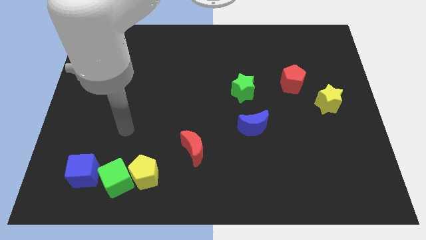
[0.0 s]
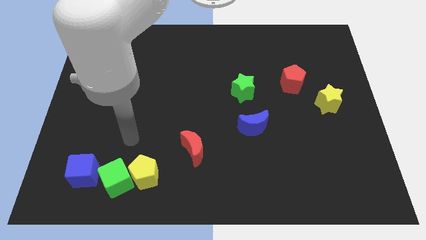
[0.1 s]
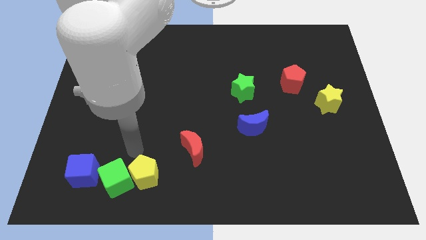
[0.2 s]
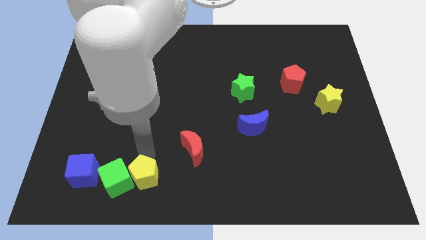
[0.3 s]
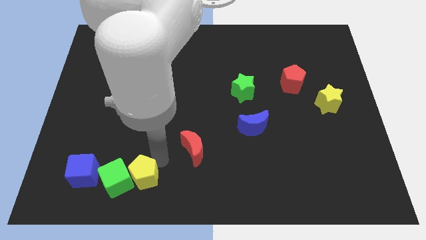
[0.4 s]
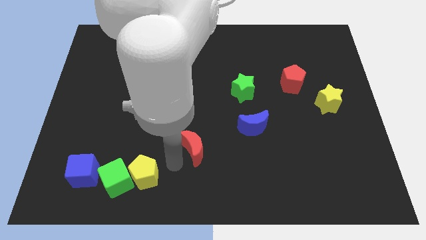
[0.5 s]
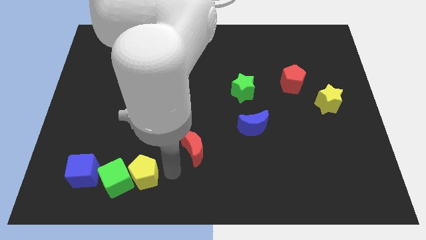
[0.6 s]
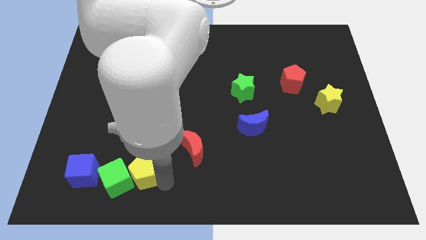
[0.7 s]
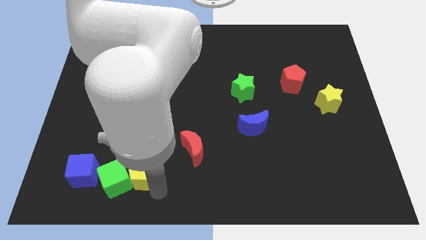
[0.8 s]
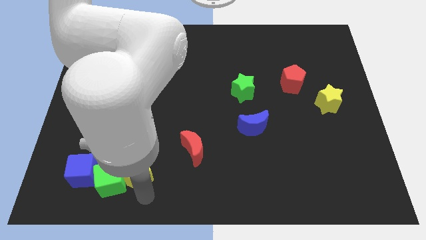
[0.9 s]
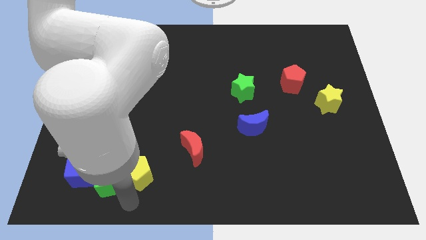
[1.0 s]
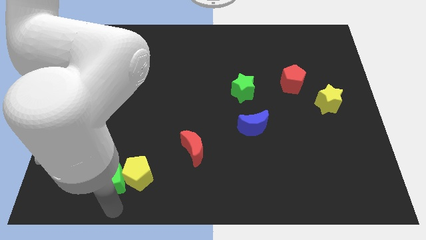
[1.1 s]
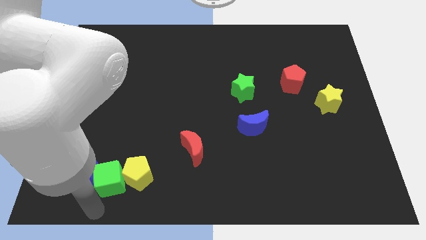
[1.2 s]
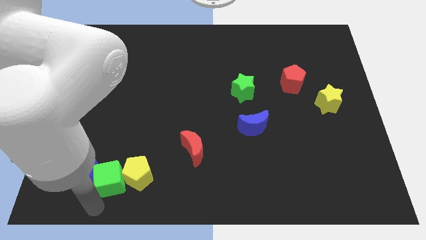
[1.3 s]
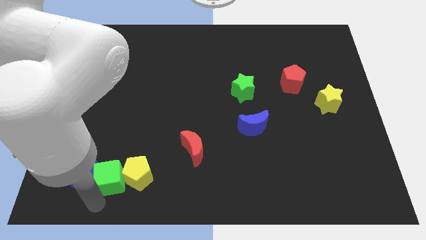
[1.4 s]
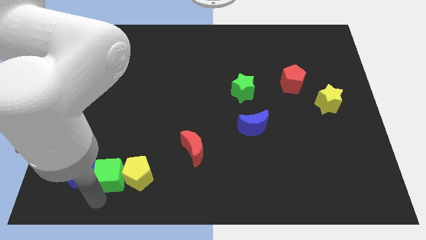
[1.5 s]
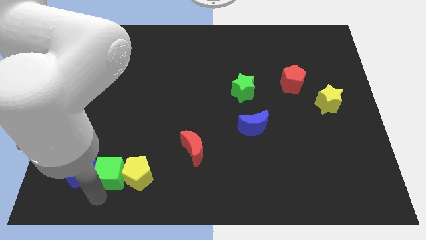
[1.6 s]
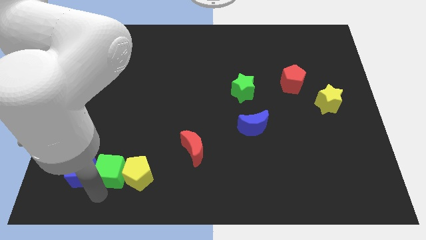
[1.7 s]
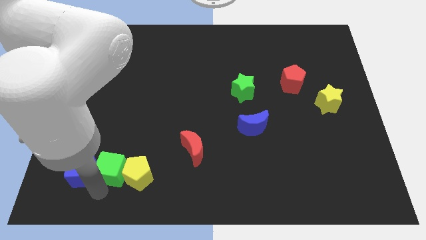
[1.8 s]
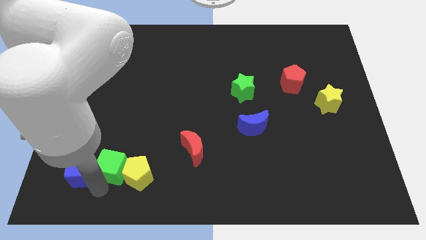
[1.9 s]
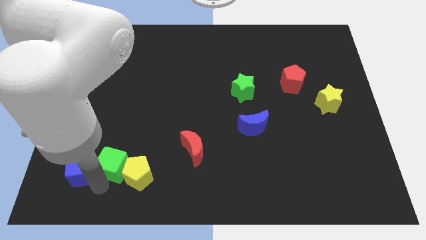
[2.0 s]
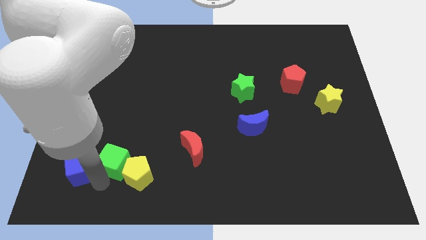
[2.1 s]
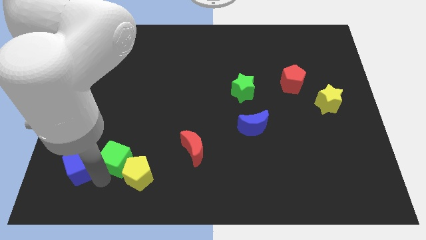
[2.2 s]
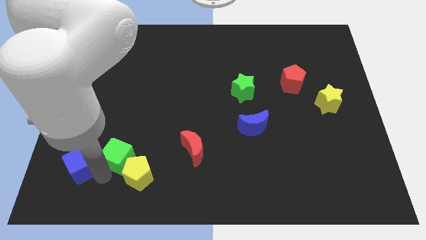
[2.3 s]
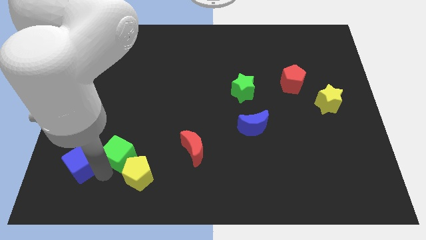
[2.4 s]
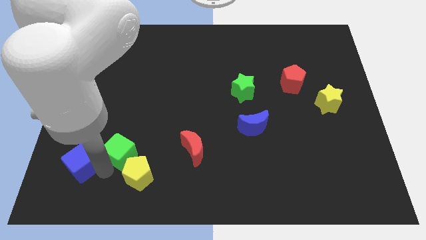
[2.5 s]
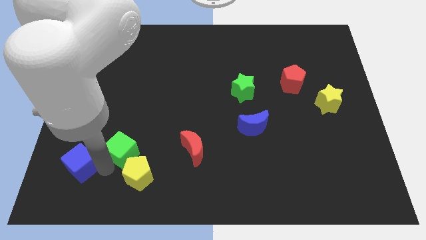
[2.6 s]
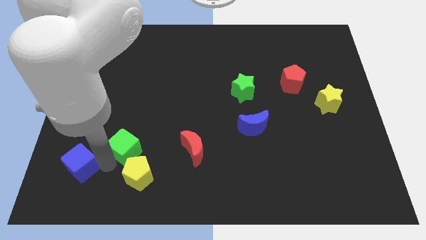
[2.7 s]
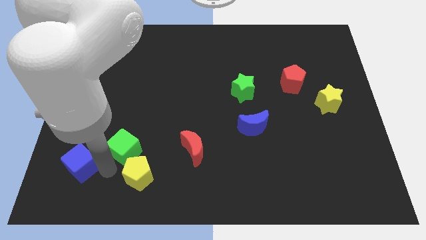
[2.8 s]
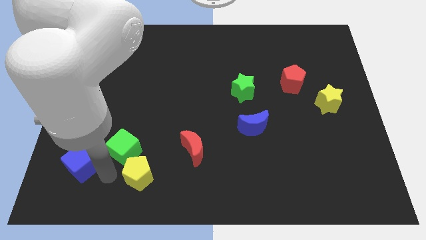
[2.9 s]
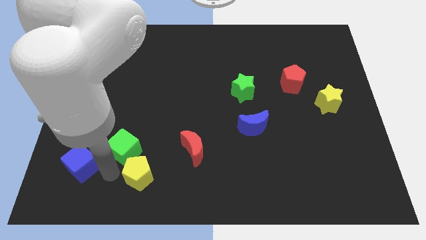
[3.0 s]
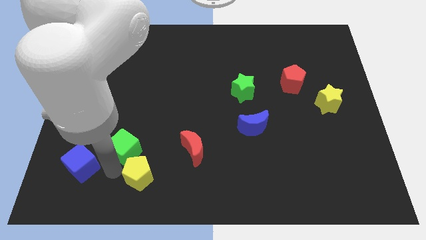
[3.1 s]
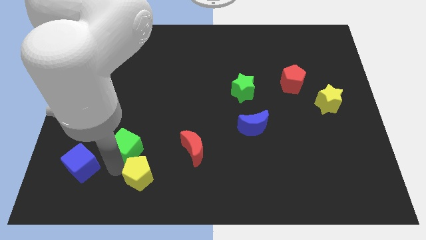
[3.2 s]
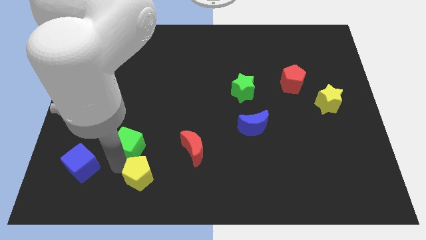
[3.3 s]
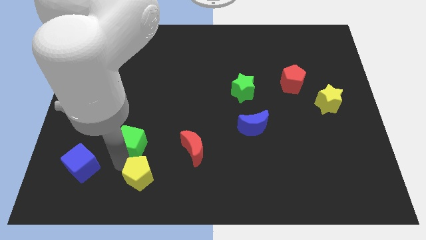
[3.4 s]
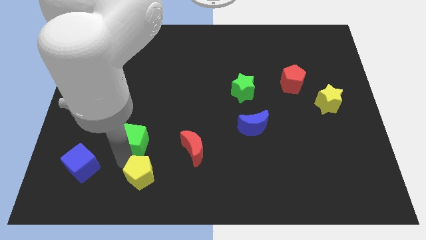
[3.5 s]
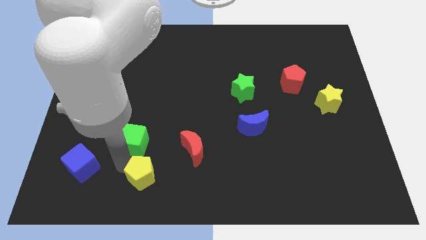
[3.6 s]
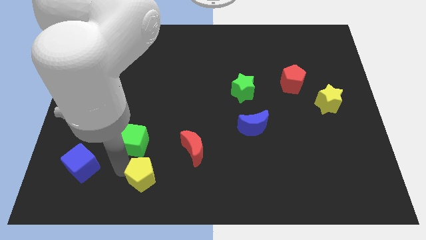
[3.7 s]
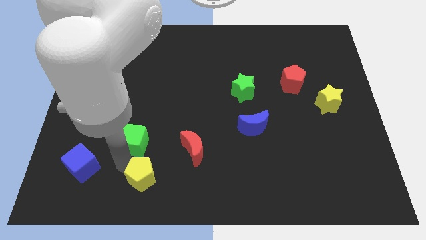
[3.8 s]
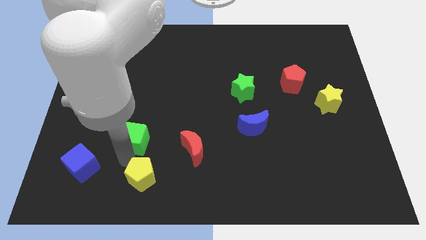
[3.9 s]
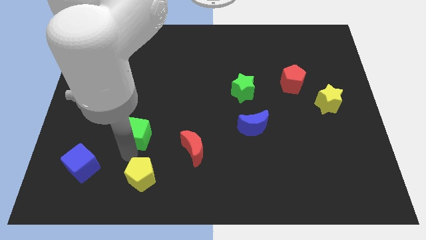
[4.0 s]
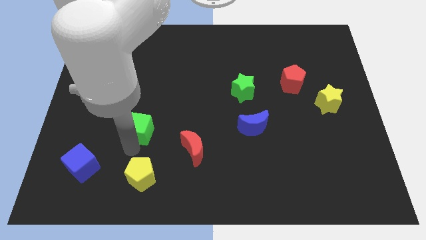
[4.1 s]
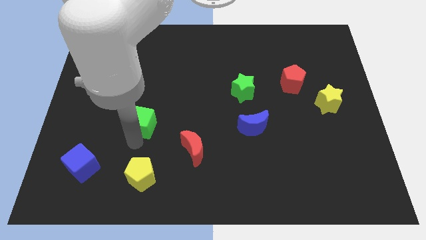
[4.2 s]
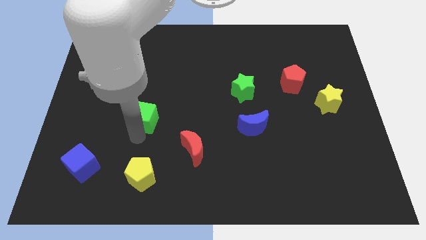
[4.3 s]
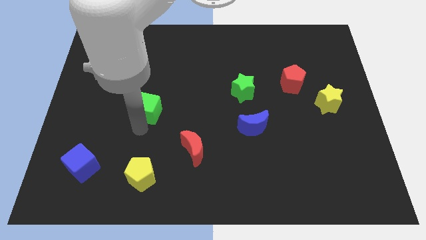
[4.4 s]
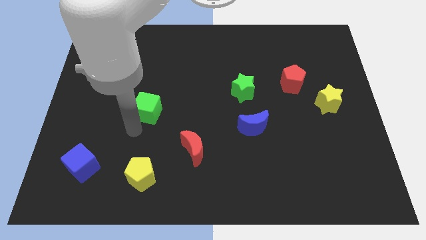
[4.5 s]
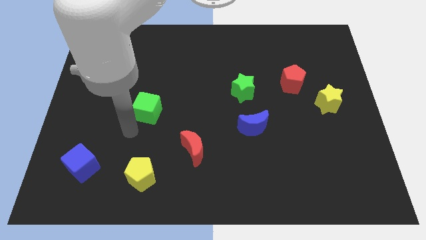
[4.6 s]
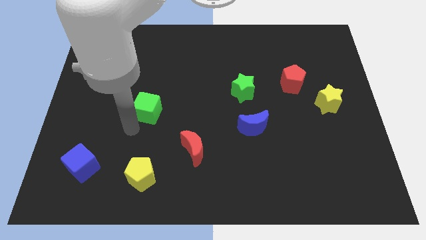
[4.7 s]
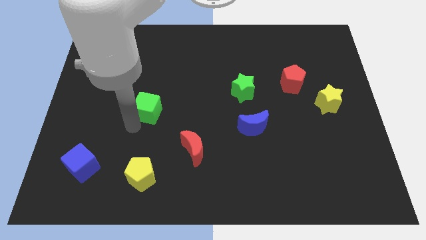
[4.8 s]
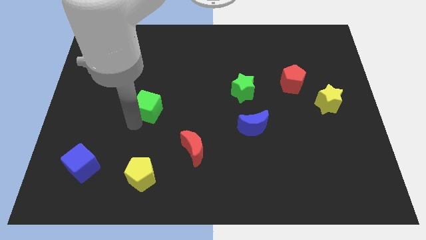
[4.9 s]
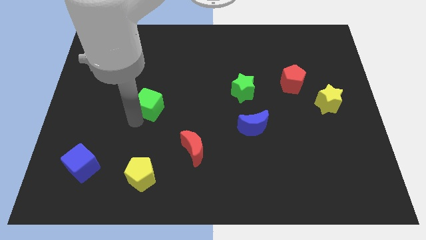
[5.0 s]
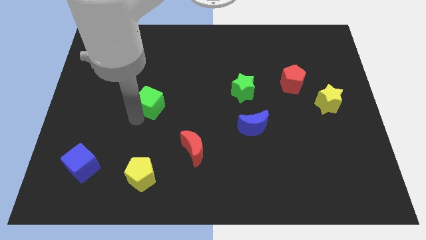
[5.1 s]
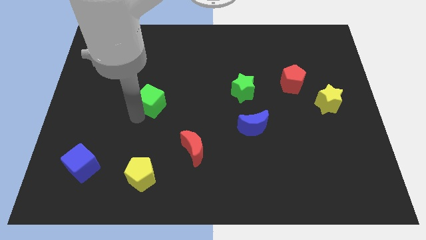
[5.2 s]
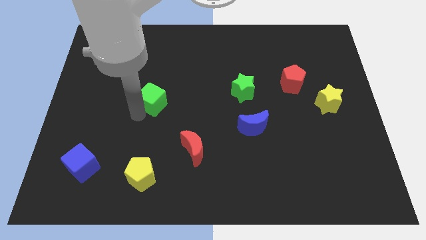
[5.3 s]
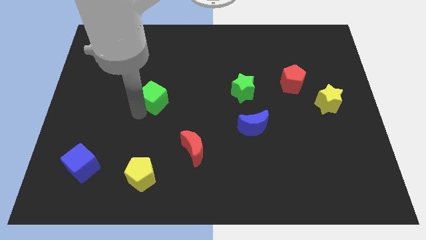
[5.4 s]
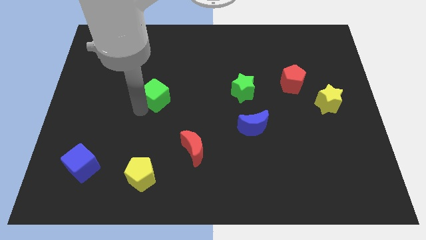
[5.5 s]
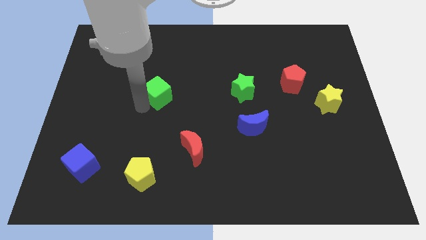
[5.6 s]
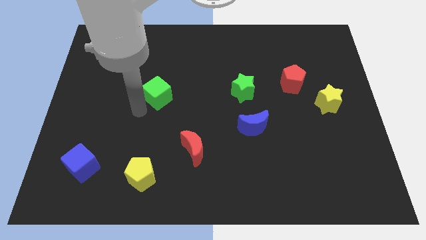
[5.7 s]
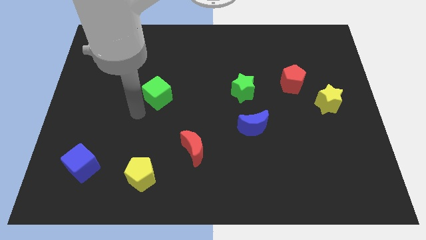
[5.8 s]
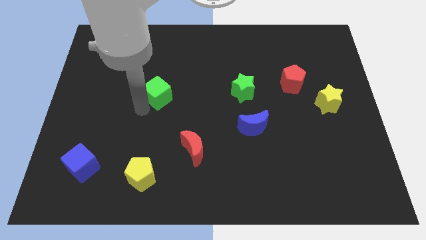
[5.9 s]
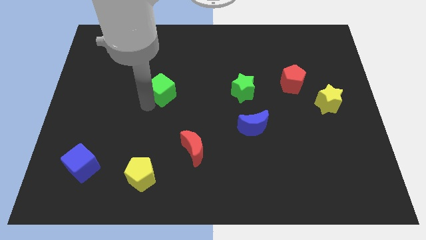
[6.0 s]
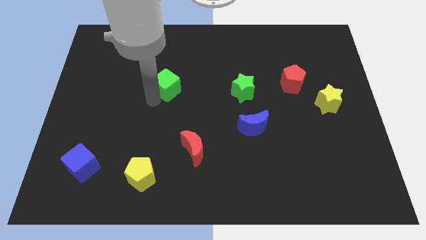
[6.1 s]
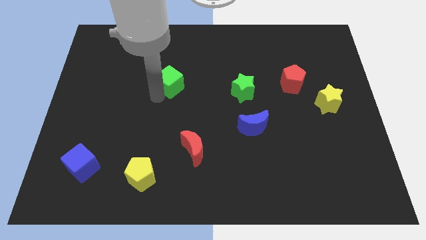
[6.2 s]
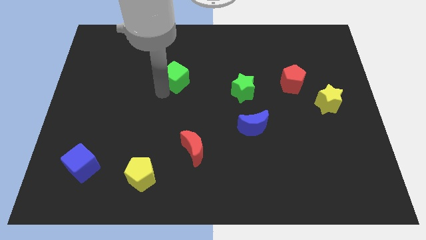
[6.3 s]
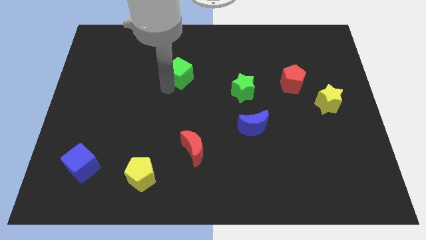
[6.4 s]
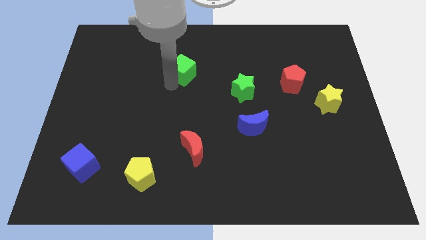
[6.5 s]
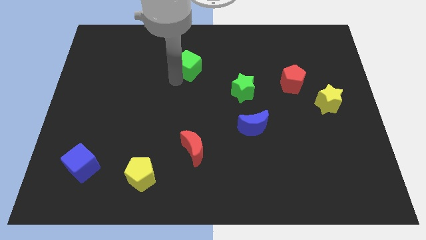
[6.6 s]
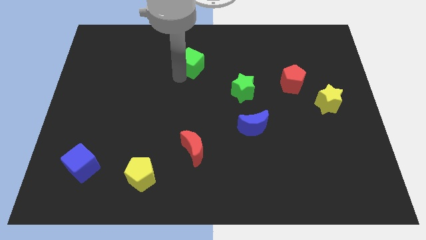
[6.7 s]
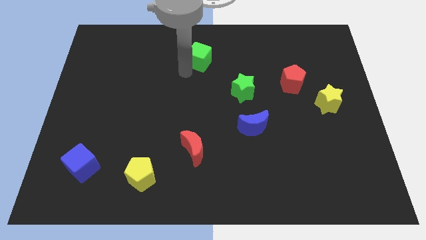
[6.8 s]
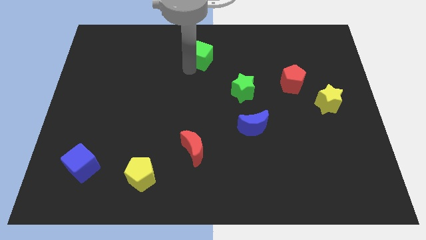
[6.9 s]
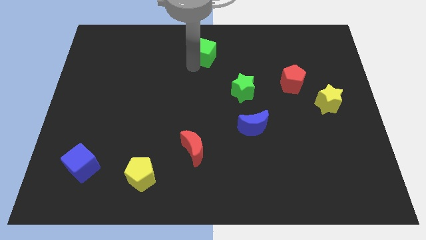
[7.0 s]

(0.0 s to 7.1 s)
slide the green cube to the top side
